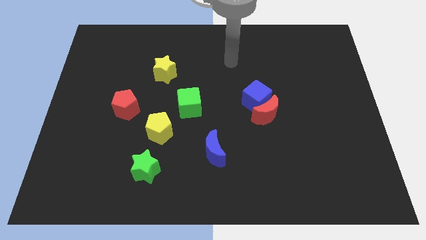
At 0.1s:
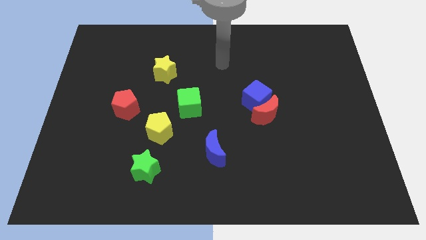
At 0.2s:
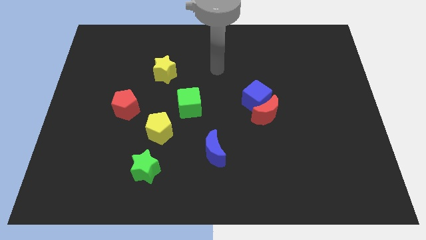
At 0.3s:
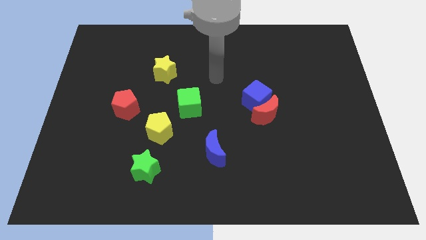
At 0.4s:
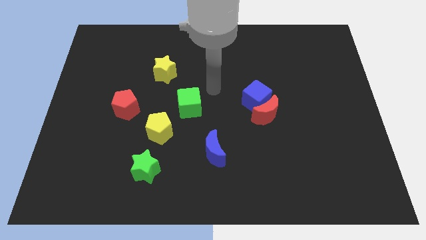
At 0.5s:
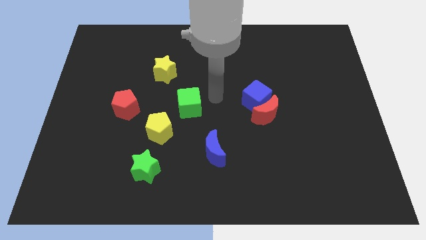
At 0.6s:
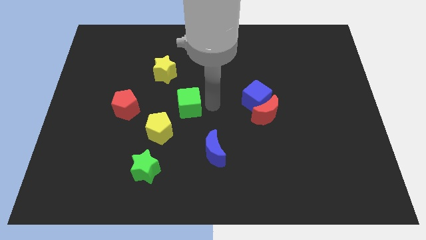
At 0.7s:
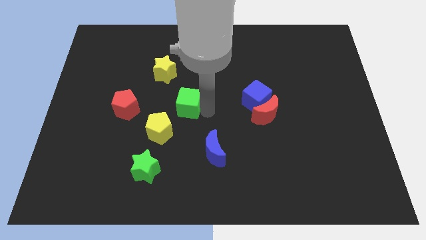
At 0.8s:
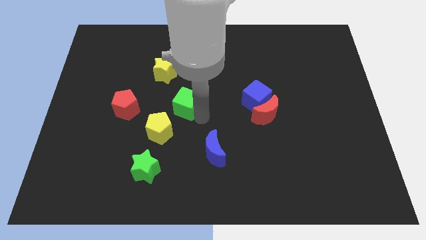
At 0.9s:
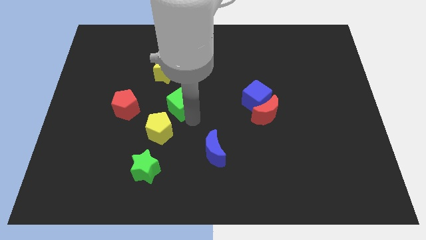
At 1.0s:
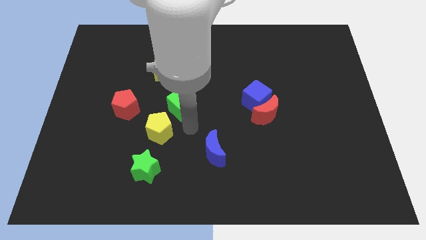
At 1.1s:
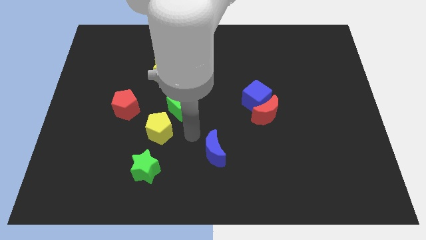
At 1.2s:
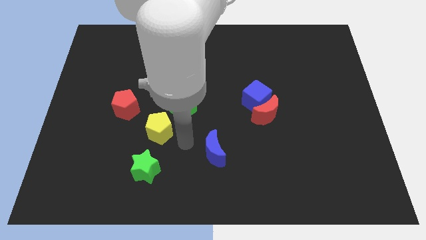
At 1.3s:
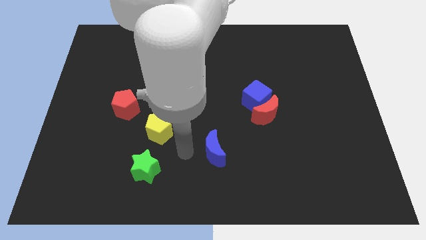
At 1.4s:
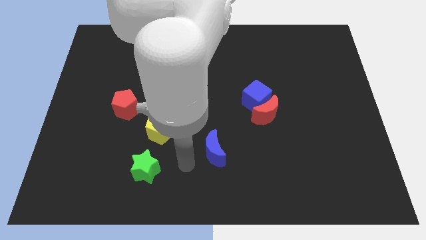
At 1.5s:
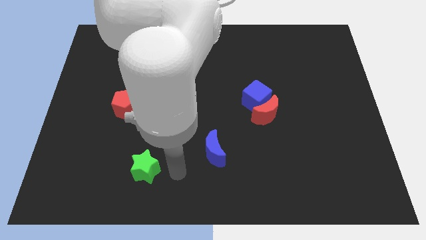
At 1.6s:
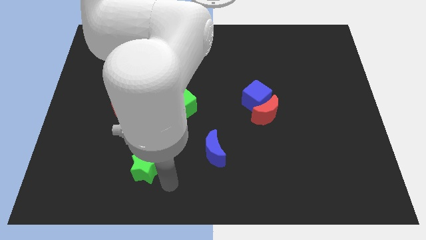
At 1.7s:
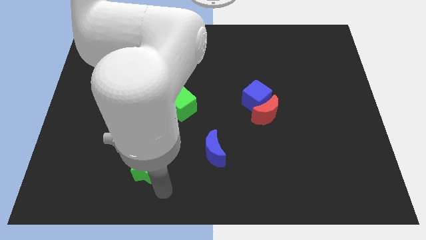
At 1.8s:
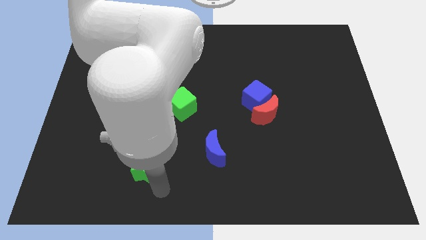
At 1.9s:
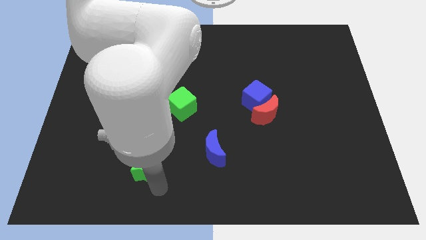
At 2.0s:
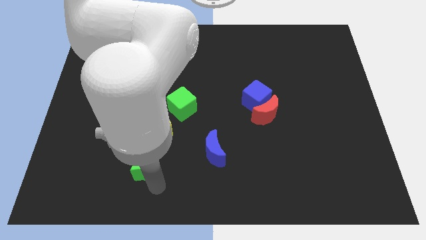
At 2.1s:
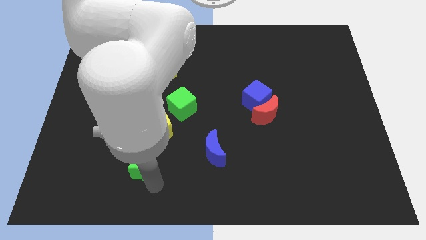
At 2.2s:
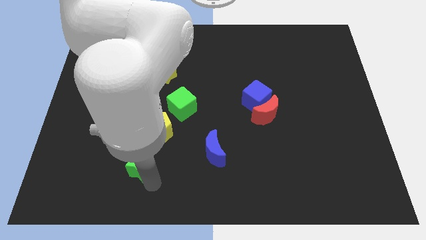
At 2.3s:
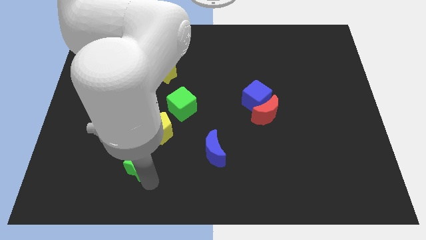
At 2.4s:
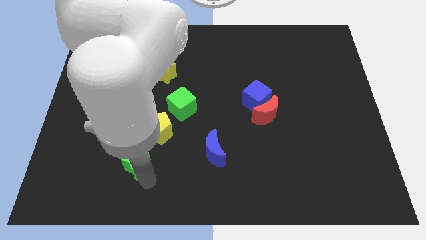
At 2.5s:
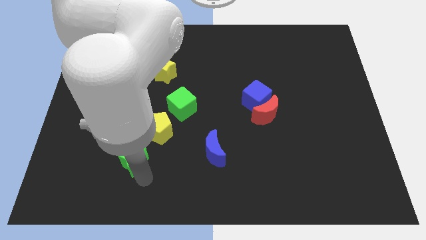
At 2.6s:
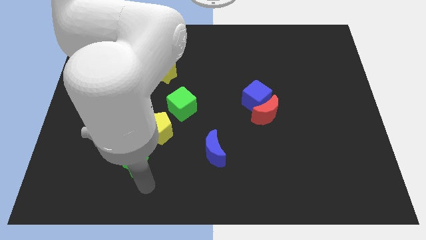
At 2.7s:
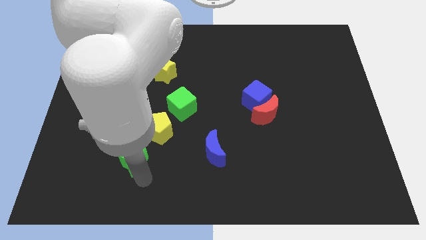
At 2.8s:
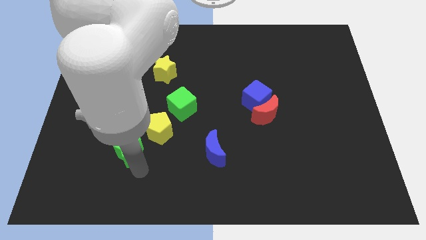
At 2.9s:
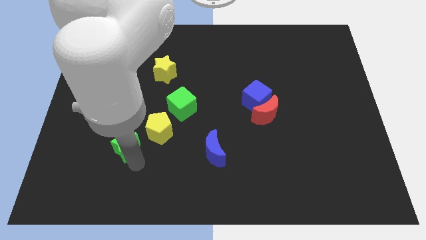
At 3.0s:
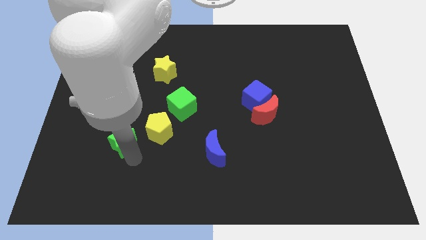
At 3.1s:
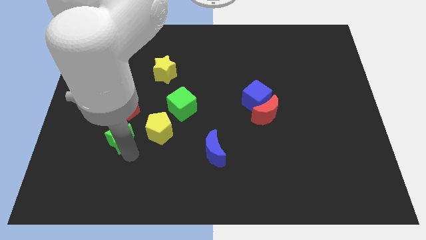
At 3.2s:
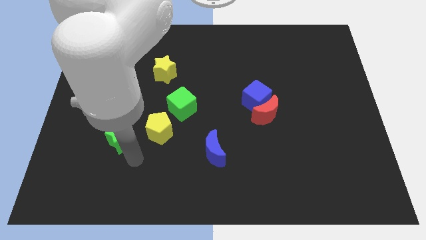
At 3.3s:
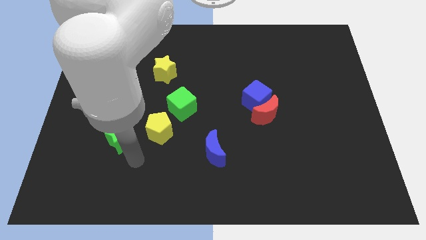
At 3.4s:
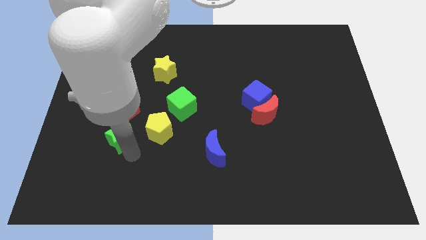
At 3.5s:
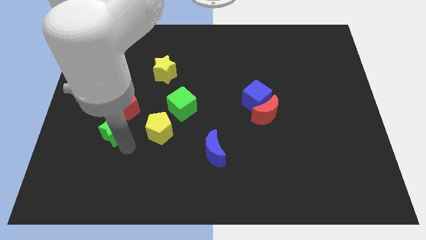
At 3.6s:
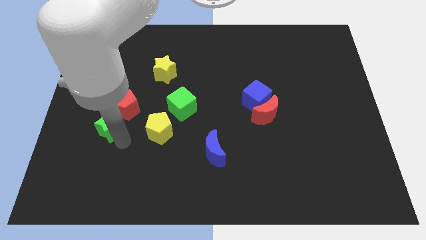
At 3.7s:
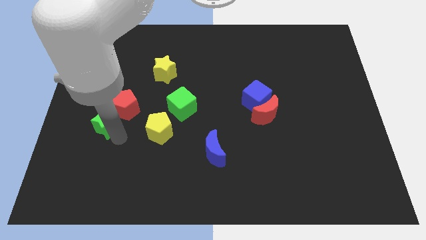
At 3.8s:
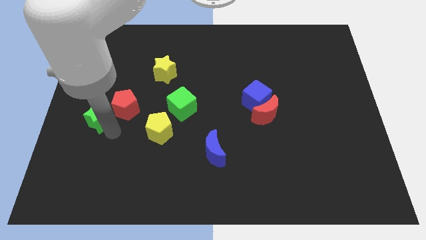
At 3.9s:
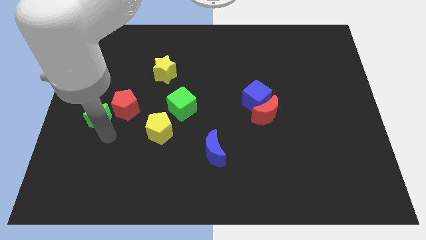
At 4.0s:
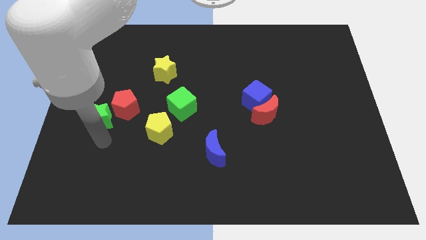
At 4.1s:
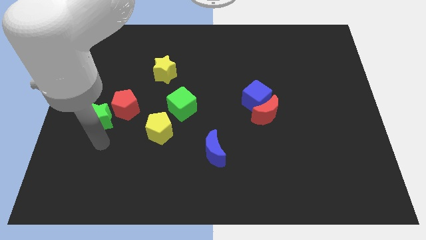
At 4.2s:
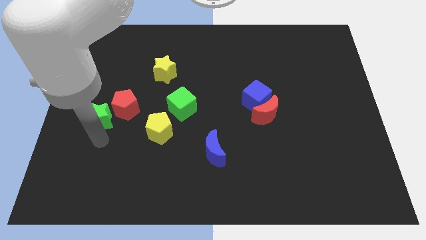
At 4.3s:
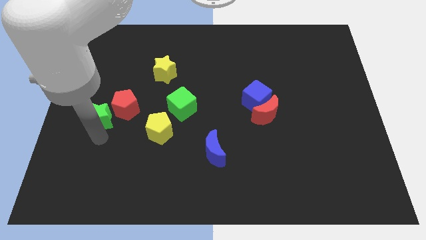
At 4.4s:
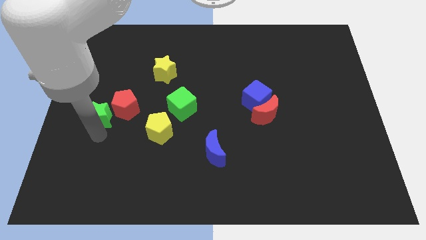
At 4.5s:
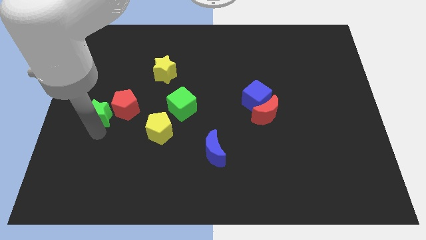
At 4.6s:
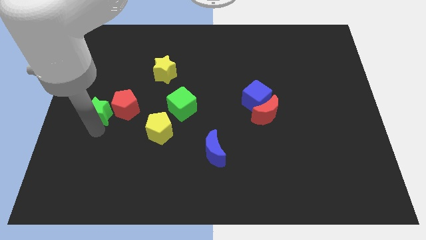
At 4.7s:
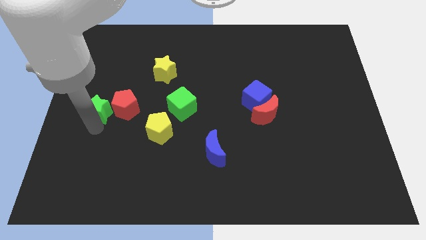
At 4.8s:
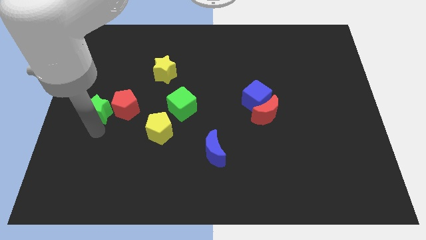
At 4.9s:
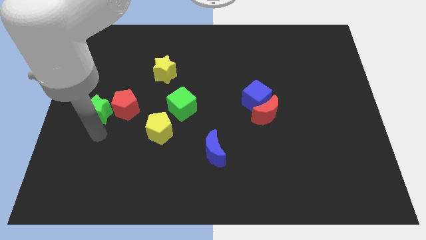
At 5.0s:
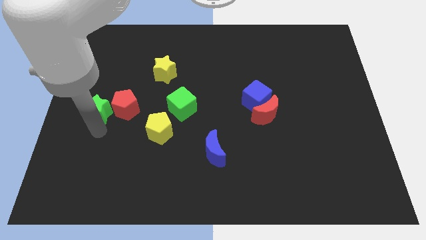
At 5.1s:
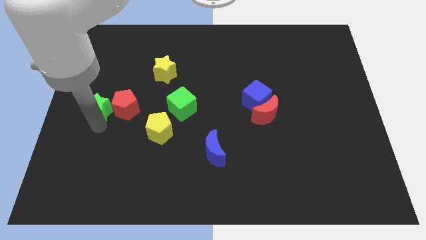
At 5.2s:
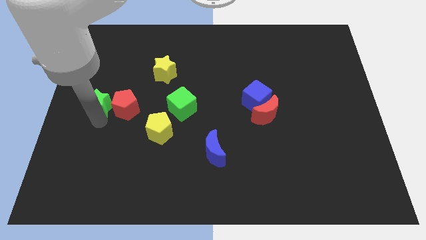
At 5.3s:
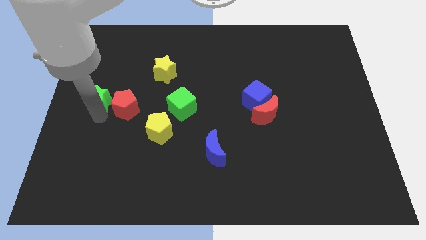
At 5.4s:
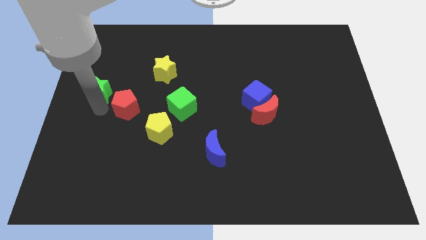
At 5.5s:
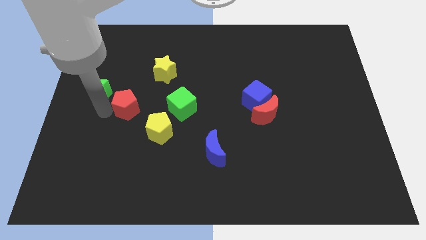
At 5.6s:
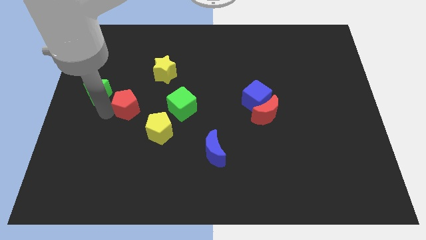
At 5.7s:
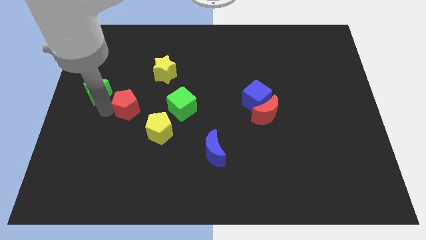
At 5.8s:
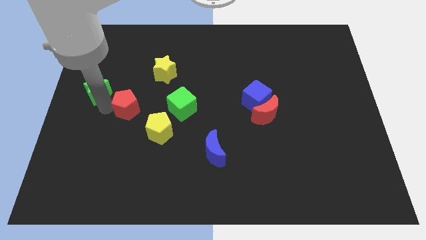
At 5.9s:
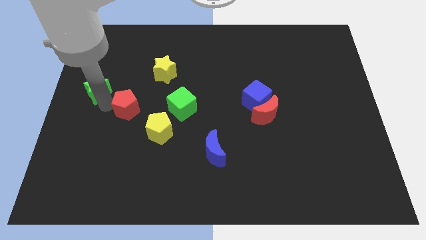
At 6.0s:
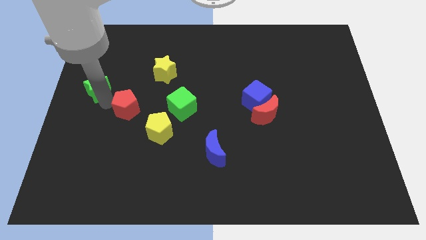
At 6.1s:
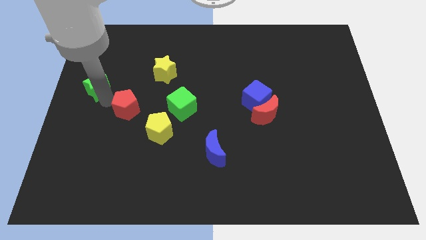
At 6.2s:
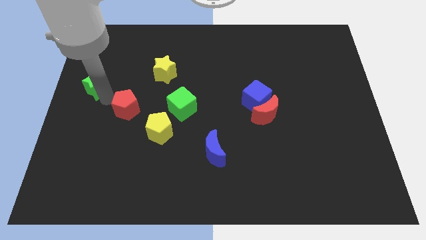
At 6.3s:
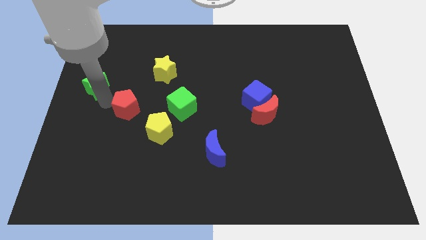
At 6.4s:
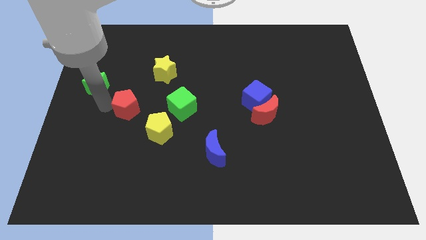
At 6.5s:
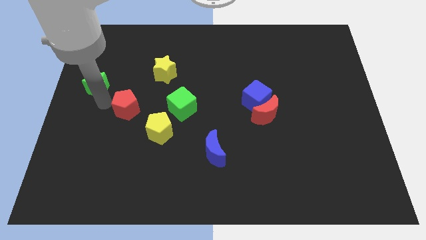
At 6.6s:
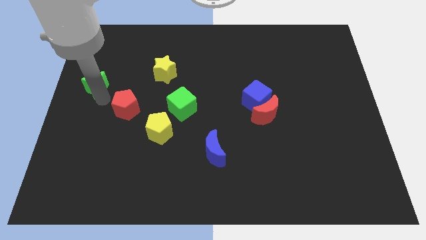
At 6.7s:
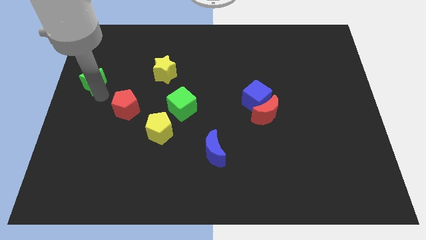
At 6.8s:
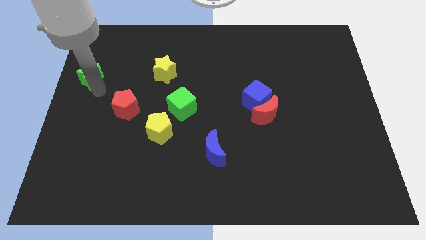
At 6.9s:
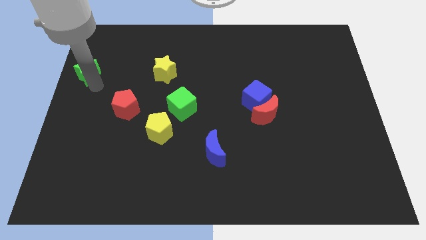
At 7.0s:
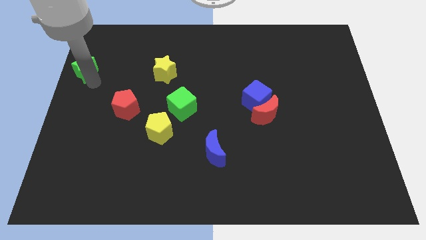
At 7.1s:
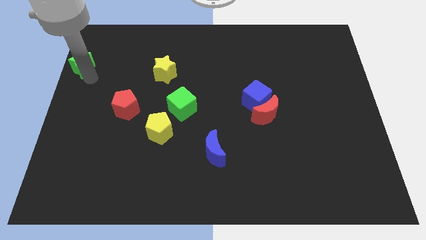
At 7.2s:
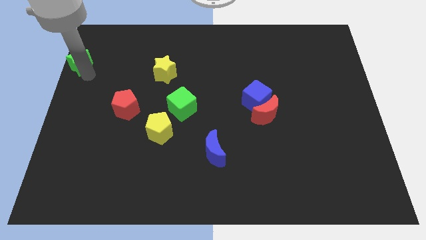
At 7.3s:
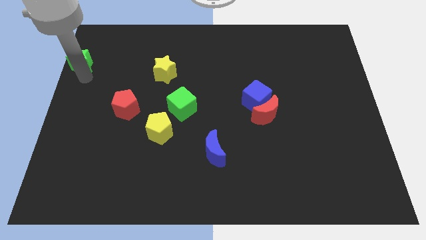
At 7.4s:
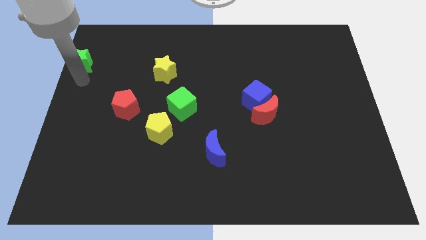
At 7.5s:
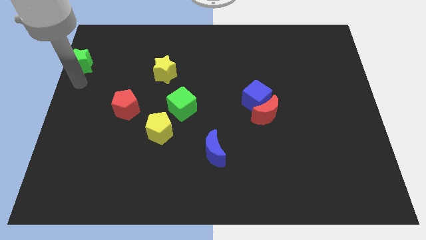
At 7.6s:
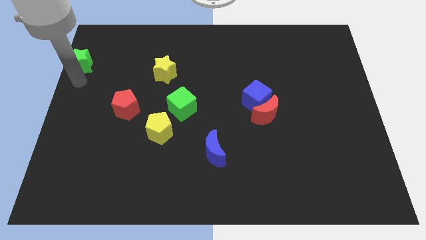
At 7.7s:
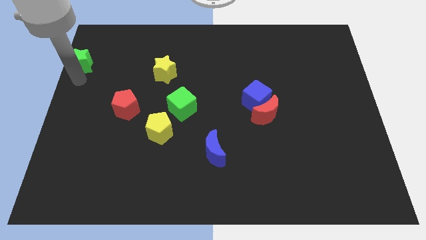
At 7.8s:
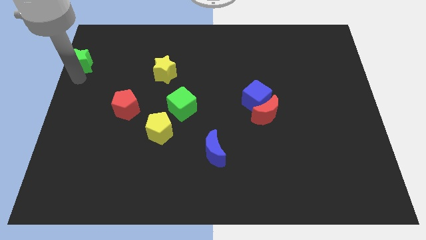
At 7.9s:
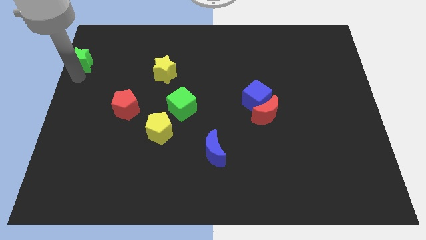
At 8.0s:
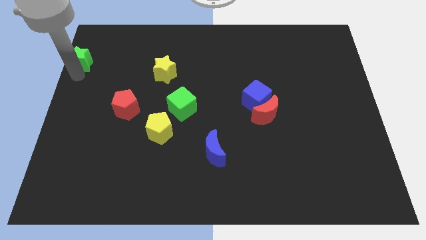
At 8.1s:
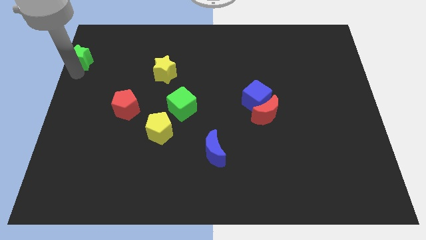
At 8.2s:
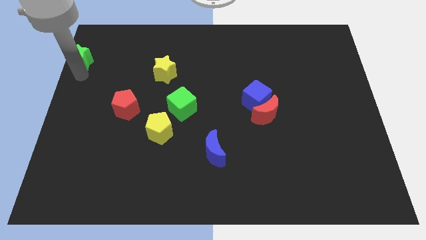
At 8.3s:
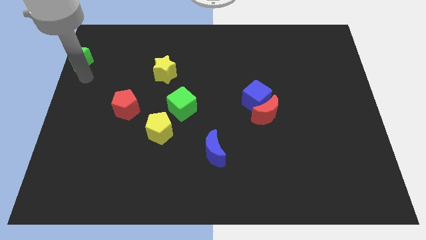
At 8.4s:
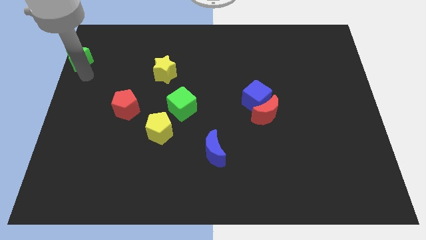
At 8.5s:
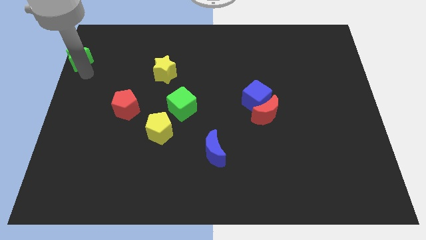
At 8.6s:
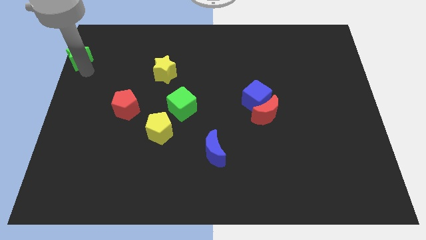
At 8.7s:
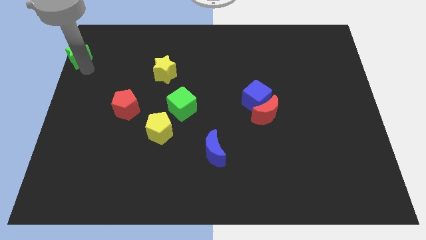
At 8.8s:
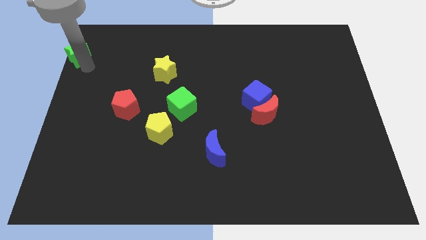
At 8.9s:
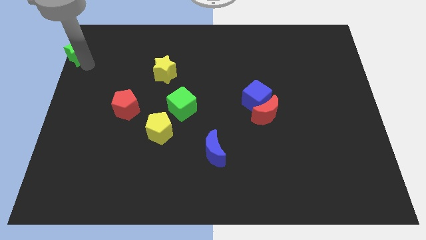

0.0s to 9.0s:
move the green star to the top left corner
